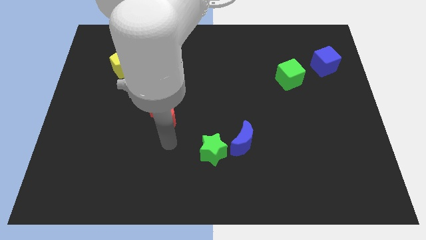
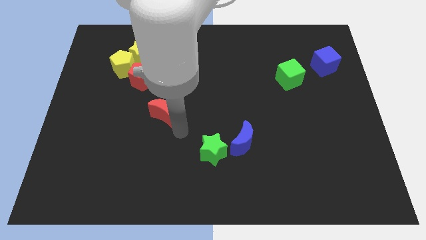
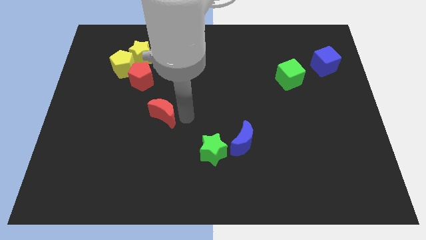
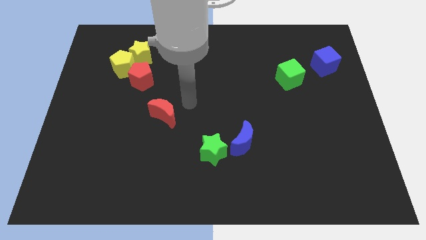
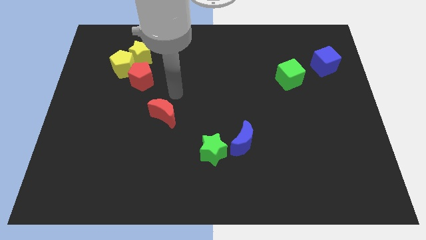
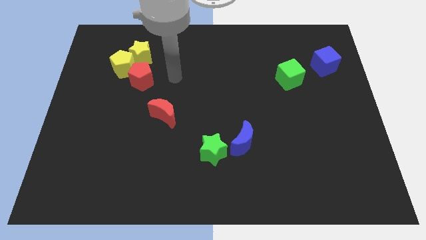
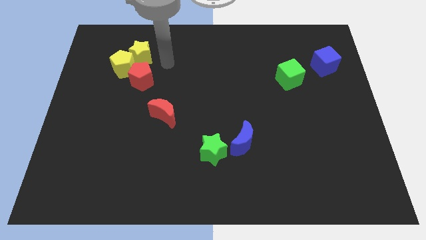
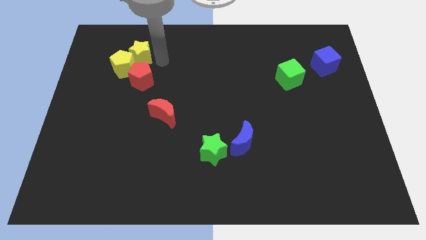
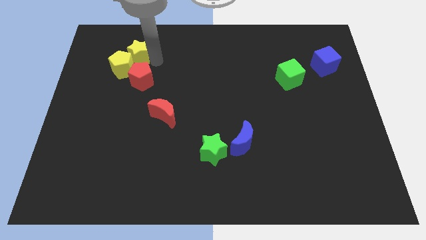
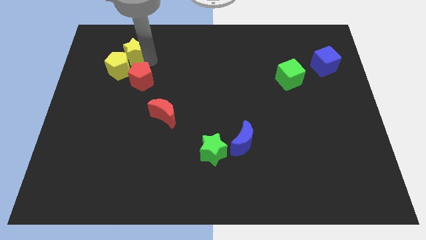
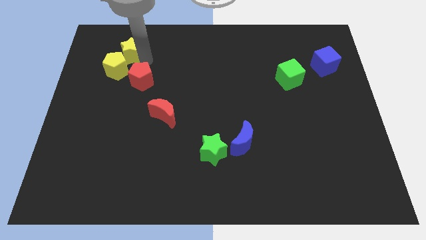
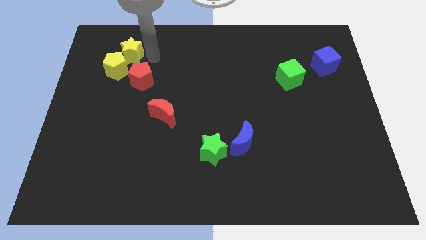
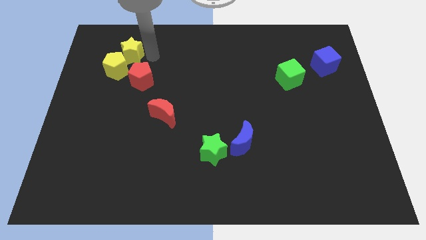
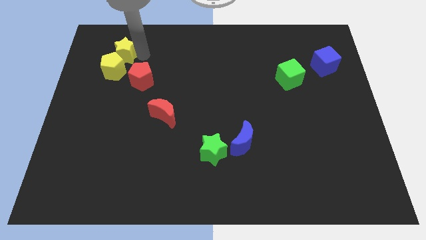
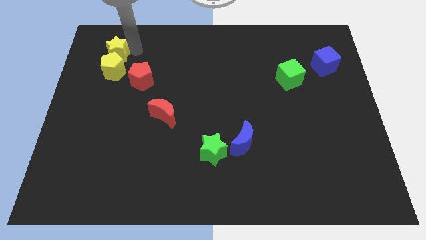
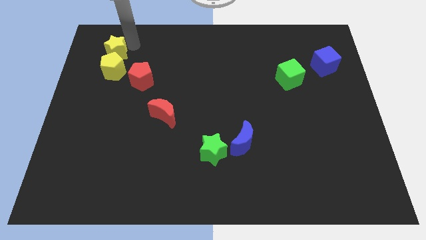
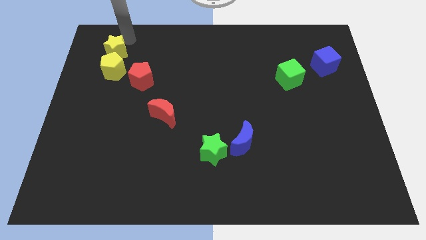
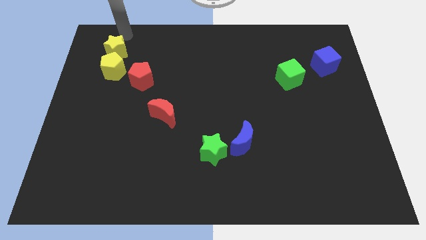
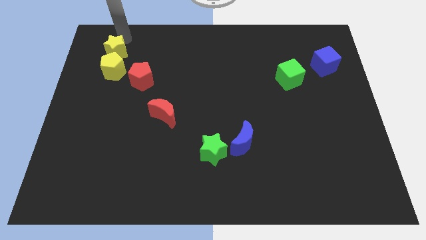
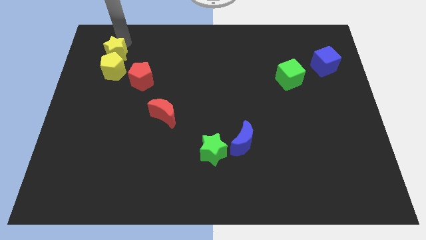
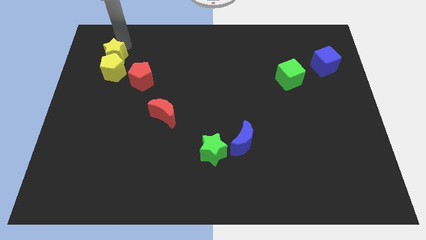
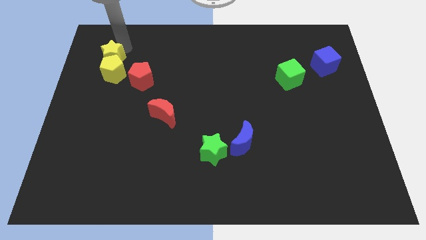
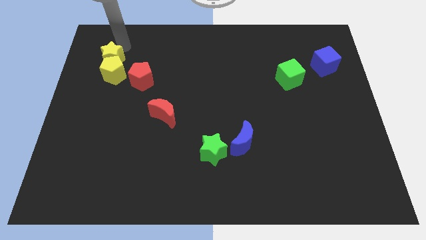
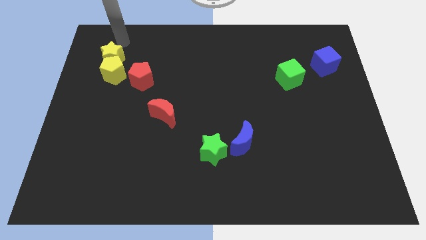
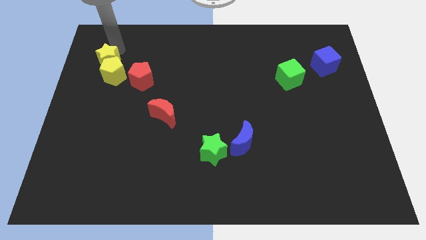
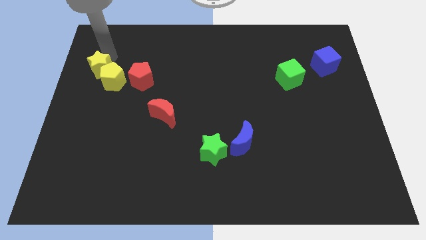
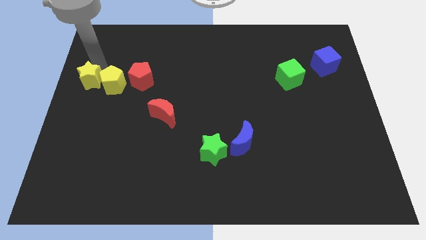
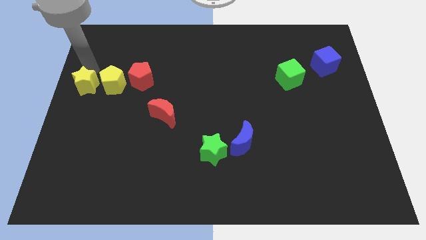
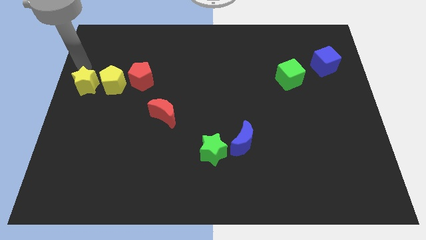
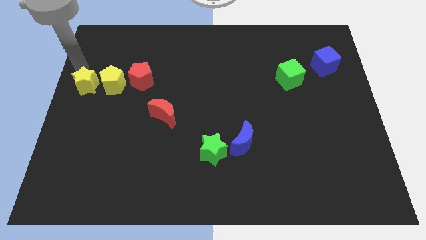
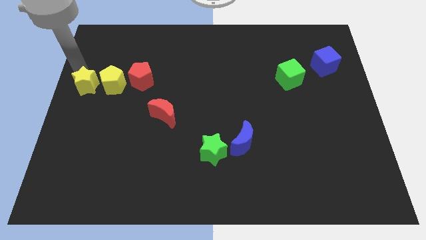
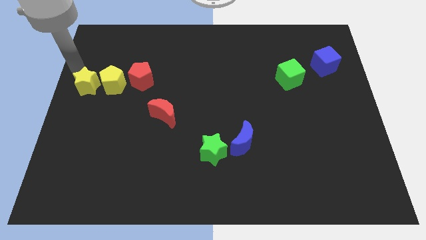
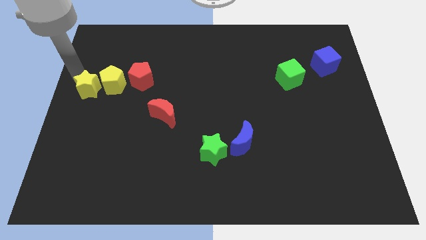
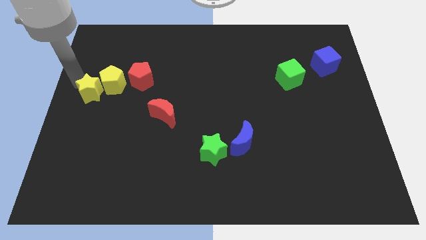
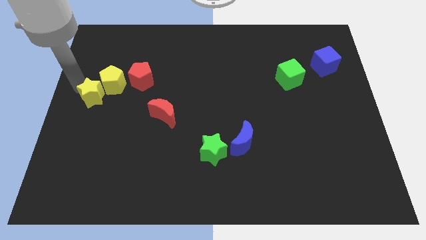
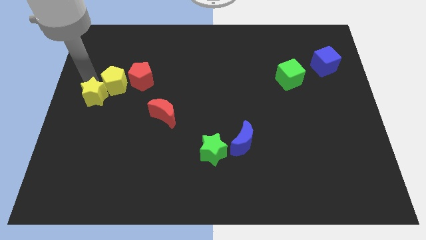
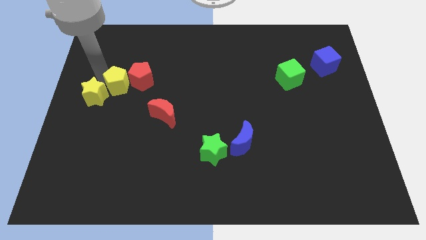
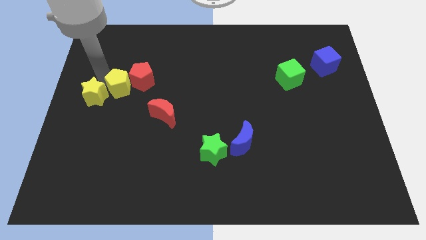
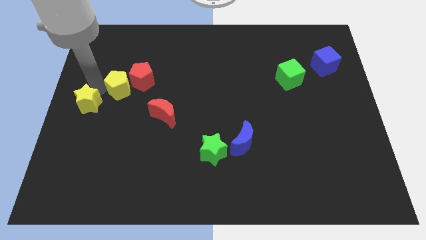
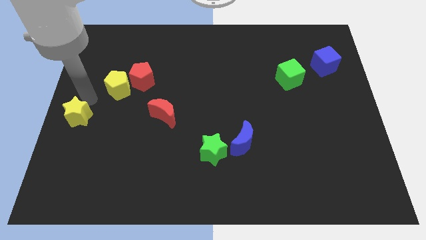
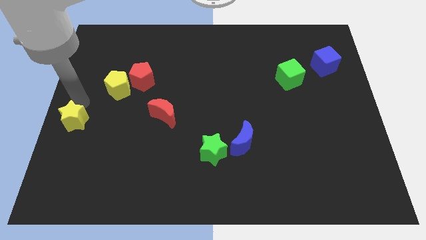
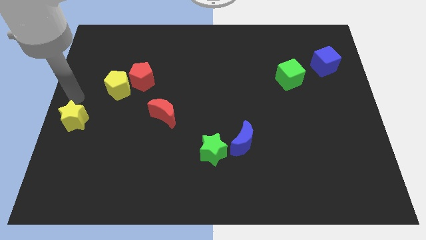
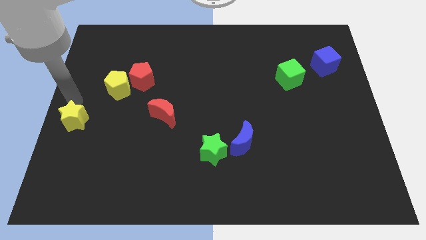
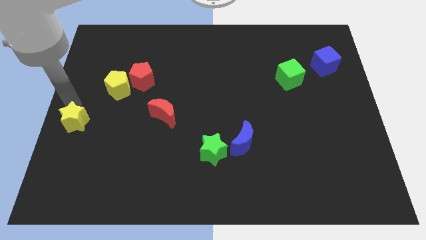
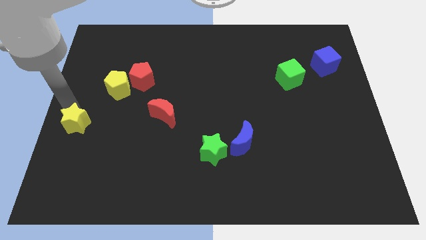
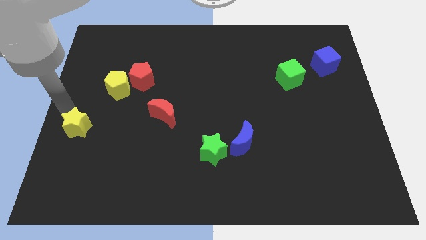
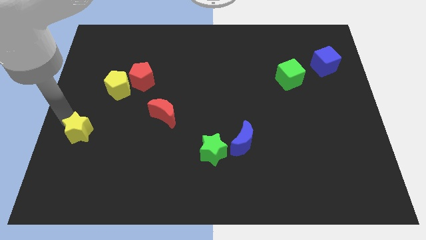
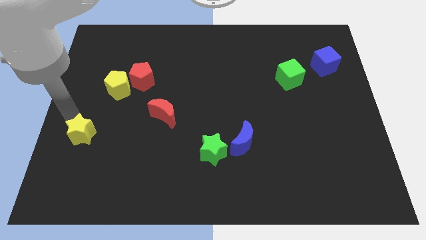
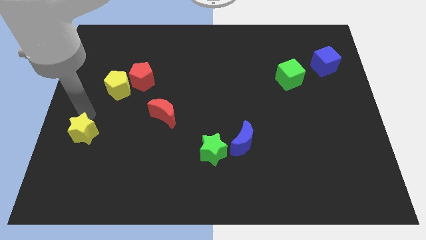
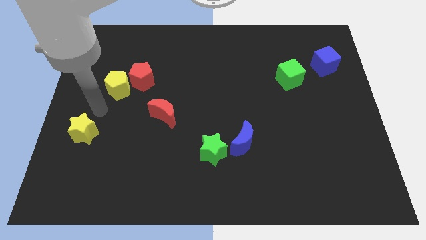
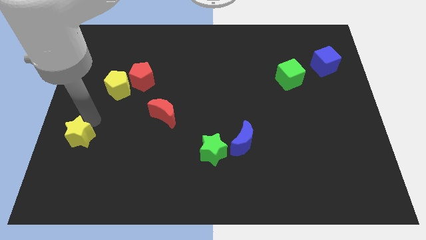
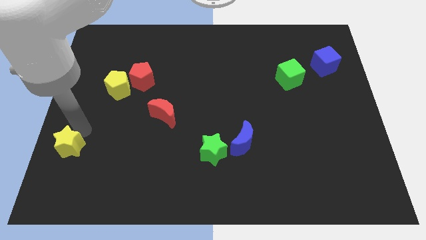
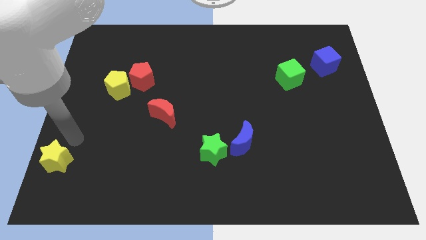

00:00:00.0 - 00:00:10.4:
put the yellow star to the bottom left corner

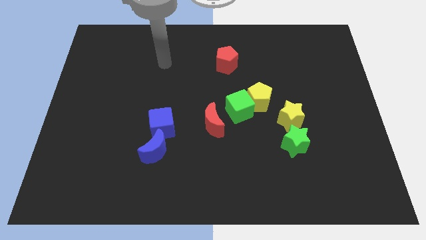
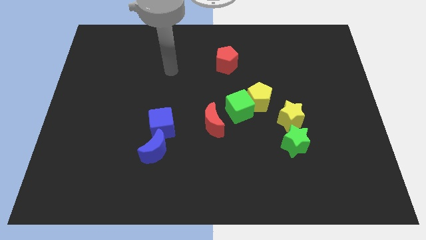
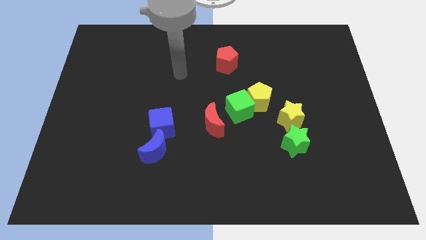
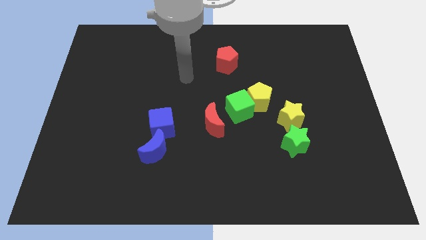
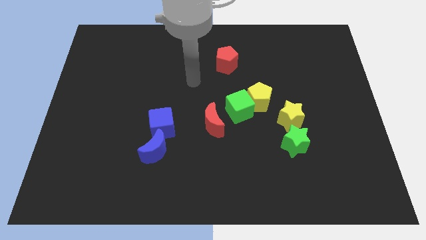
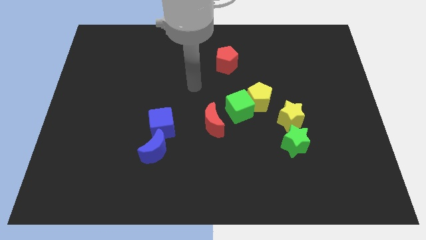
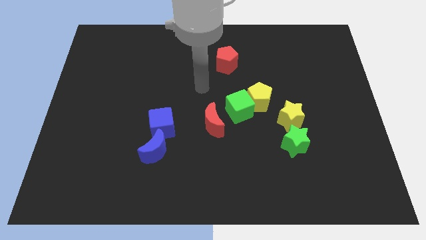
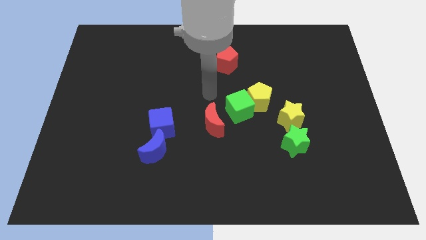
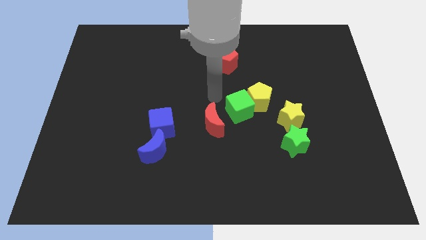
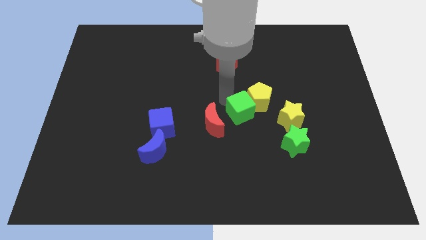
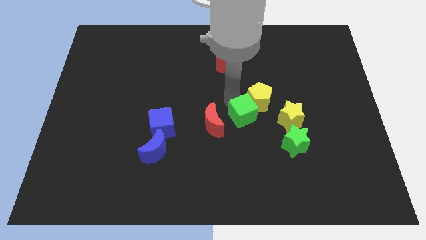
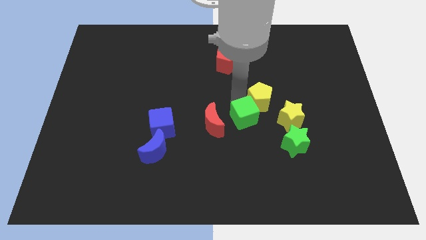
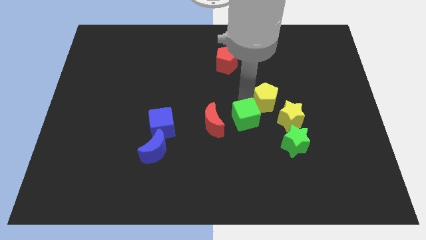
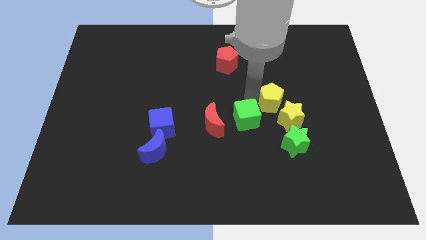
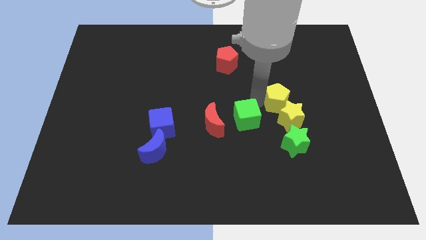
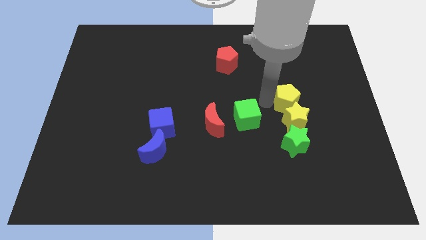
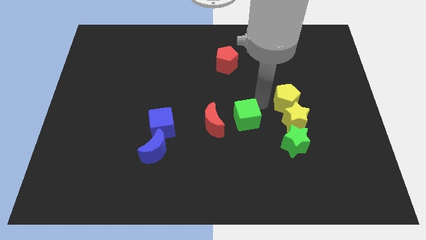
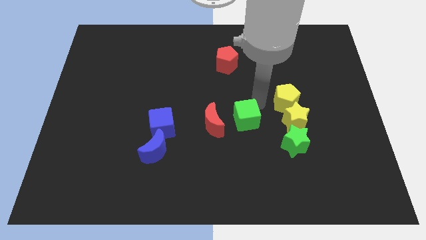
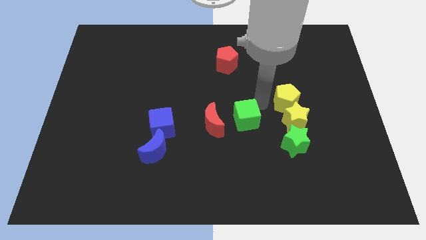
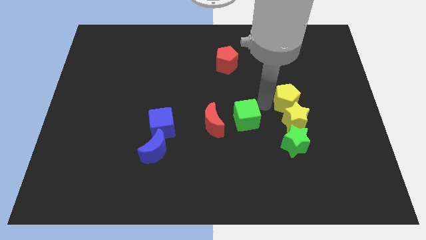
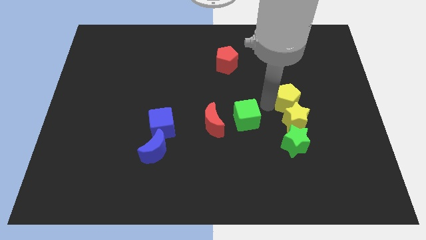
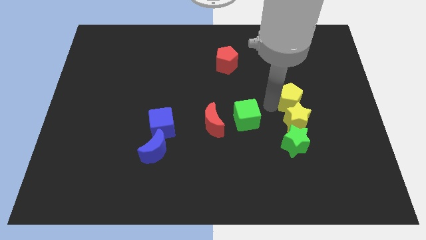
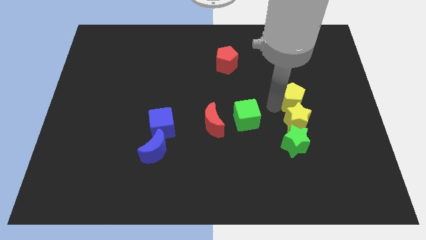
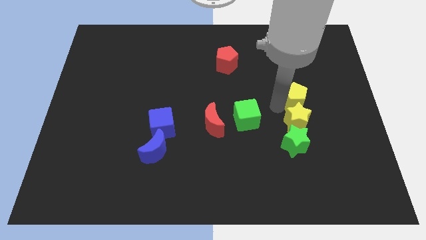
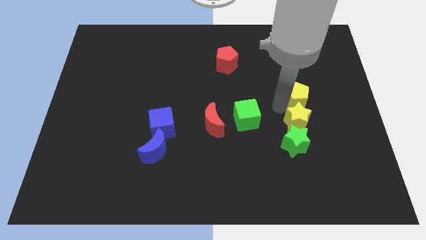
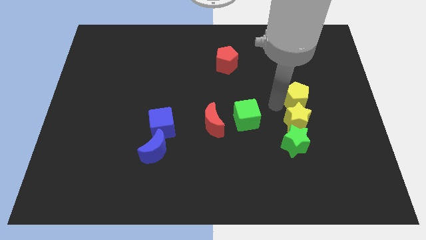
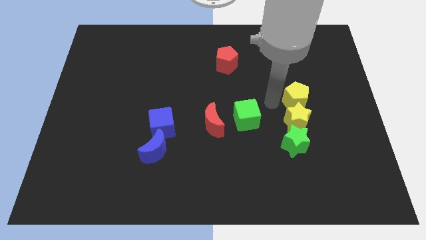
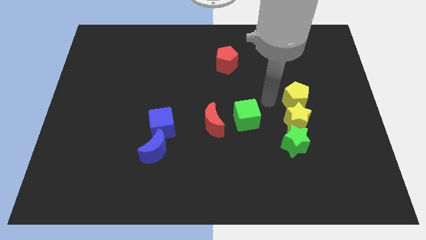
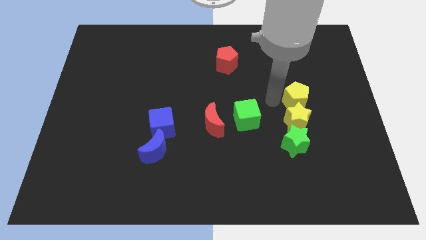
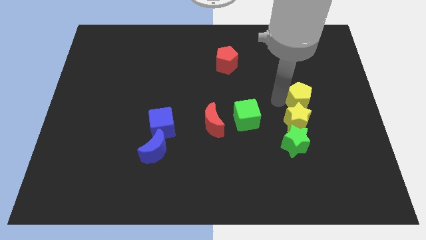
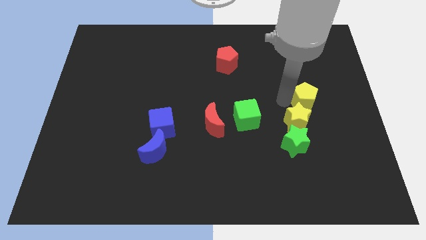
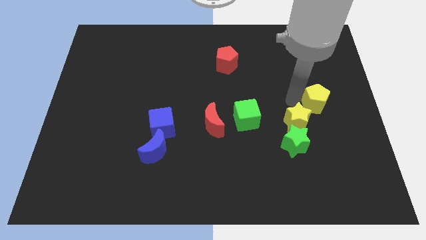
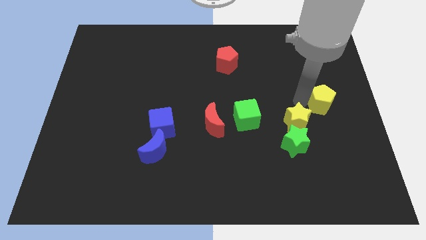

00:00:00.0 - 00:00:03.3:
move the yellow pentagon to the right side
